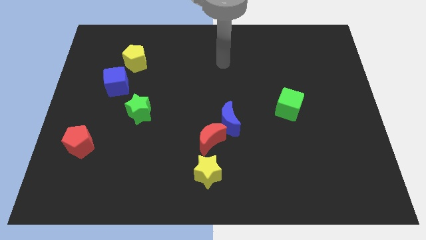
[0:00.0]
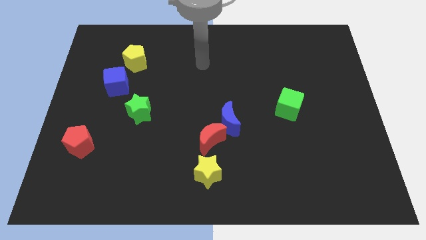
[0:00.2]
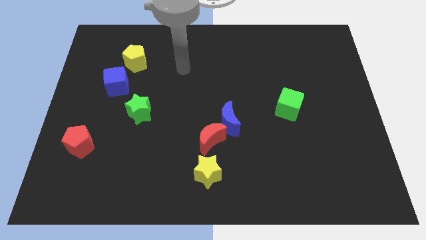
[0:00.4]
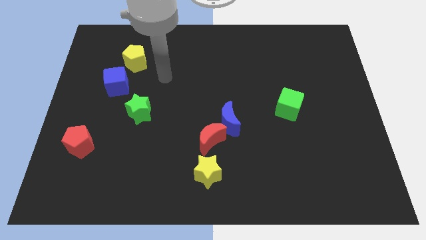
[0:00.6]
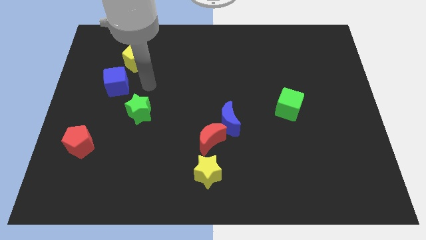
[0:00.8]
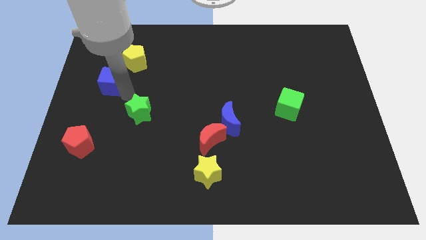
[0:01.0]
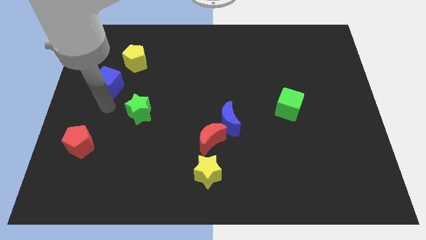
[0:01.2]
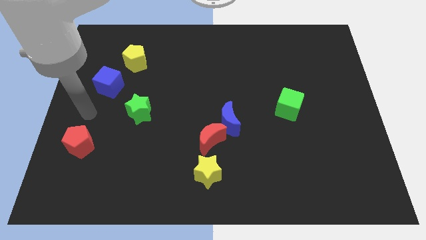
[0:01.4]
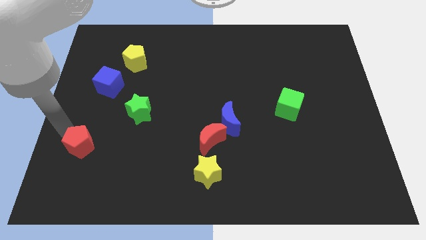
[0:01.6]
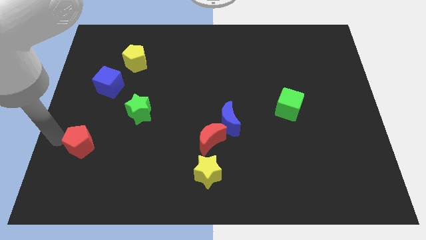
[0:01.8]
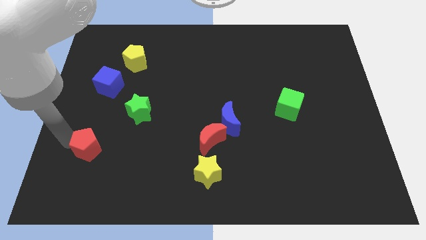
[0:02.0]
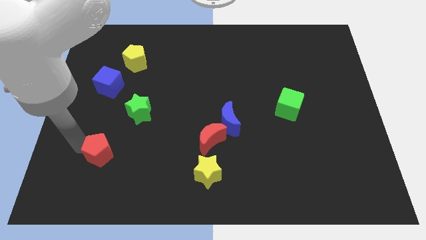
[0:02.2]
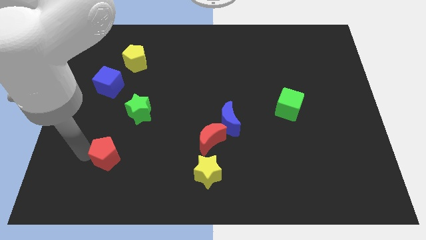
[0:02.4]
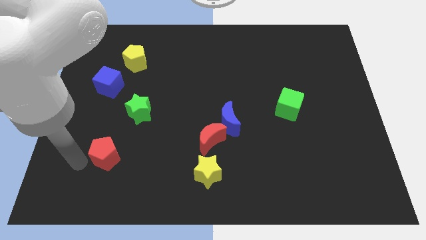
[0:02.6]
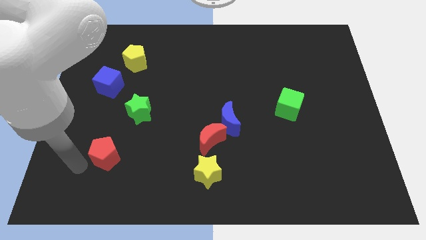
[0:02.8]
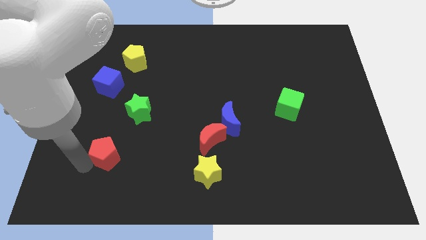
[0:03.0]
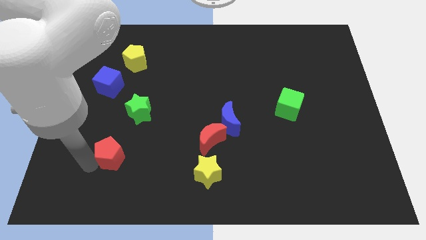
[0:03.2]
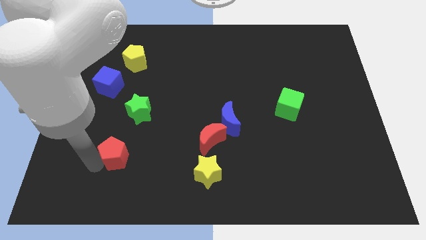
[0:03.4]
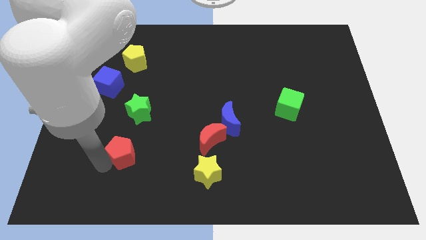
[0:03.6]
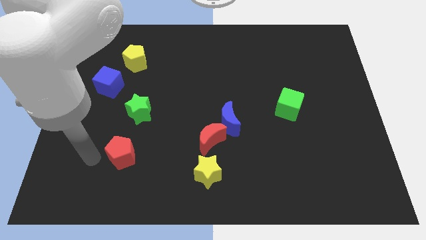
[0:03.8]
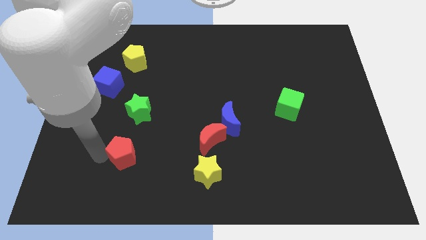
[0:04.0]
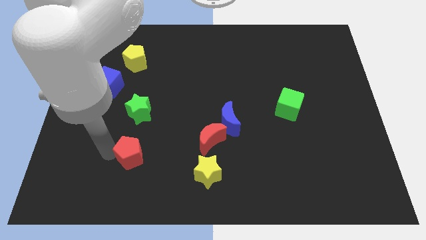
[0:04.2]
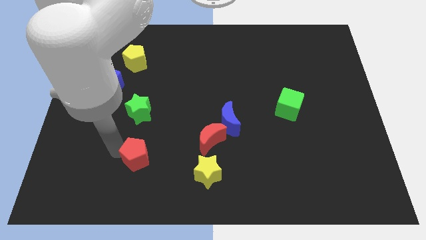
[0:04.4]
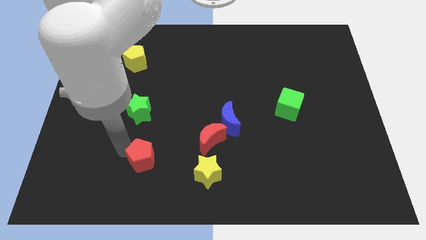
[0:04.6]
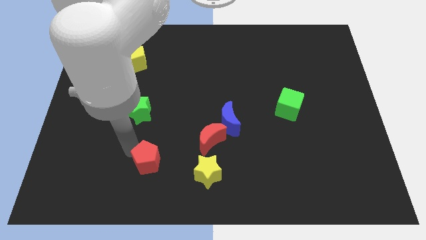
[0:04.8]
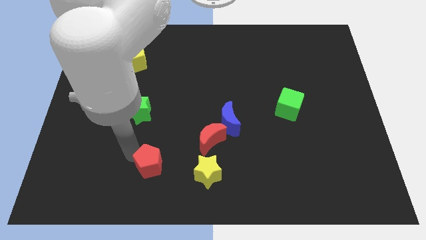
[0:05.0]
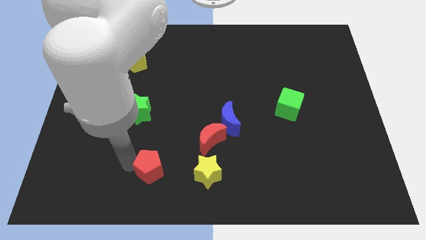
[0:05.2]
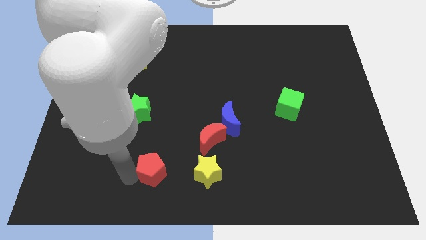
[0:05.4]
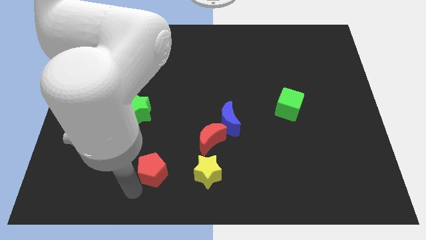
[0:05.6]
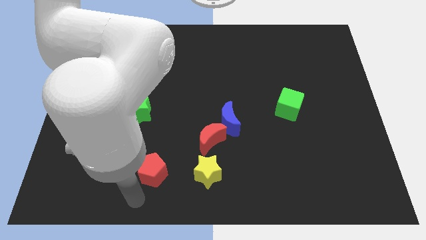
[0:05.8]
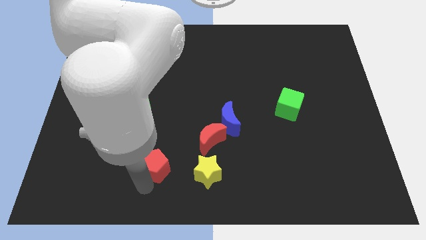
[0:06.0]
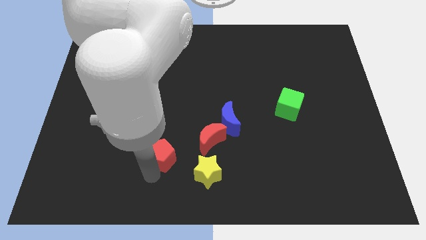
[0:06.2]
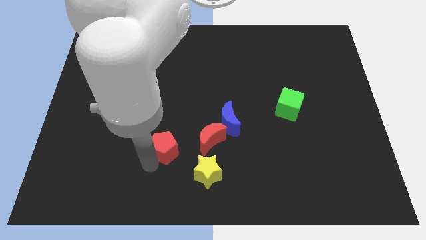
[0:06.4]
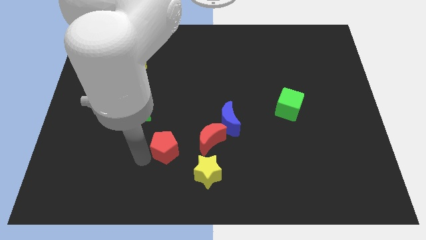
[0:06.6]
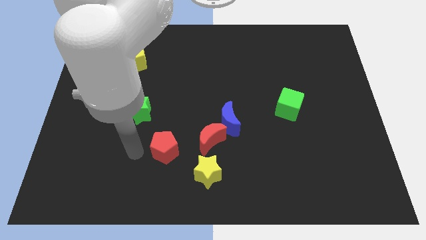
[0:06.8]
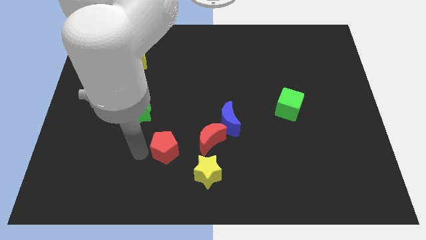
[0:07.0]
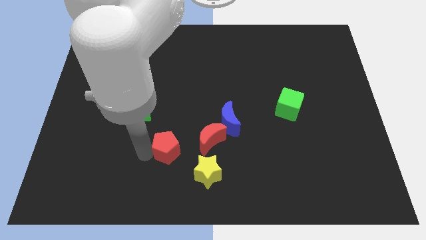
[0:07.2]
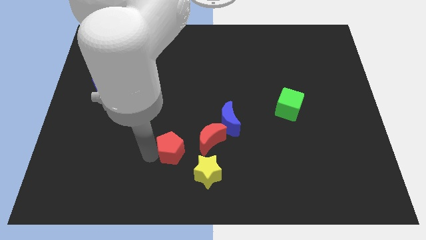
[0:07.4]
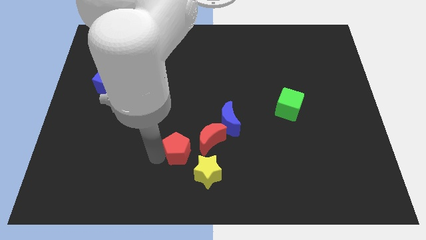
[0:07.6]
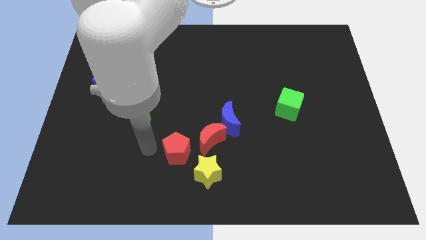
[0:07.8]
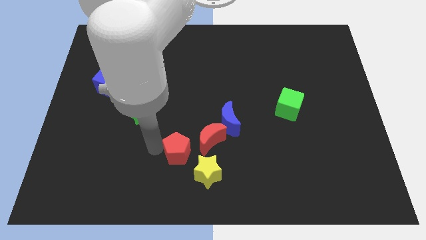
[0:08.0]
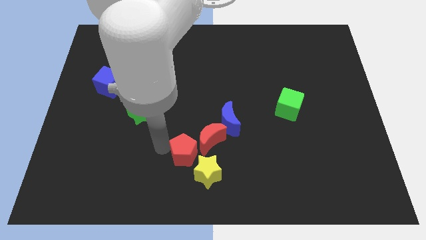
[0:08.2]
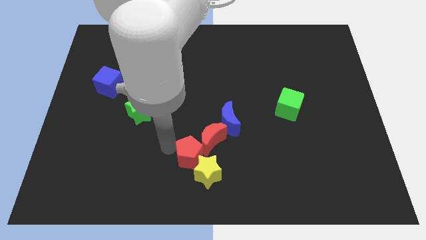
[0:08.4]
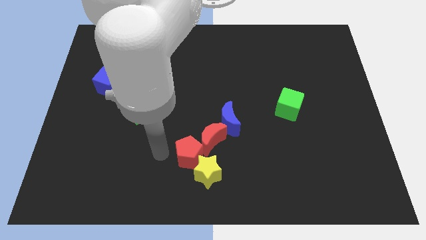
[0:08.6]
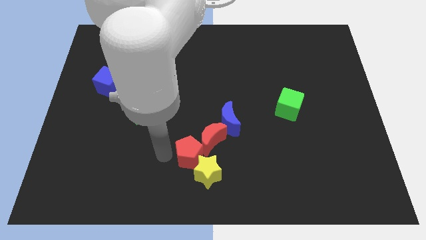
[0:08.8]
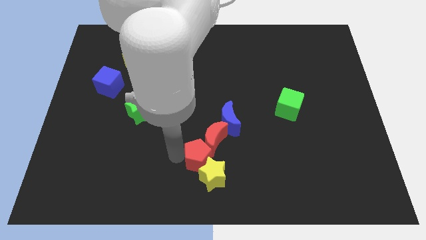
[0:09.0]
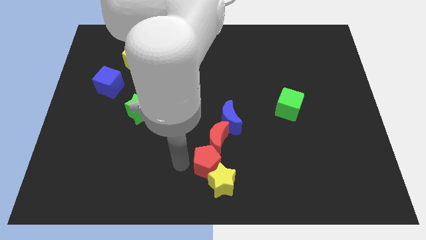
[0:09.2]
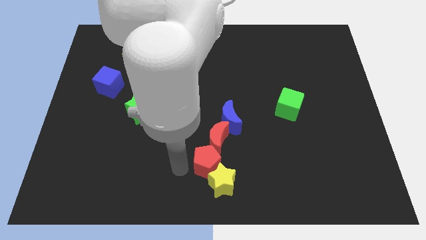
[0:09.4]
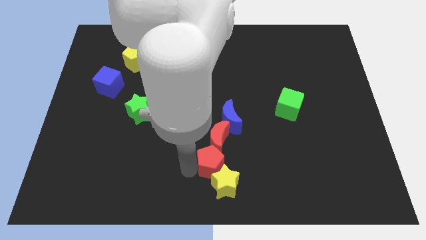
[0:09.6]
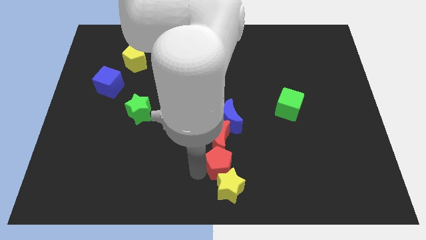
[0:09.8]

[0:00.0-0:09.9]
move the red pentagon to the top right of the yellow star

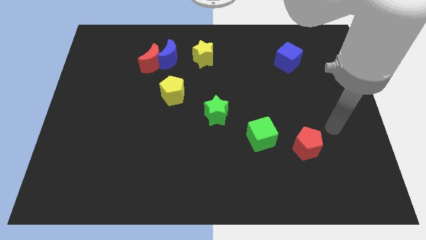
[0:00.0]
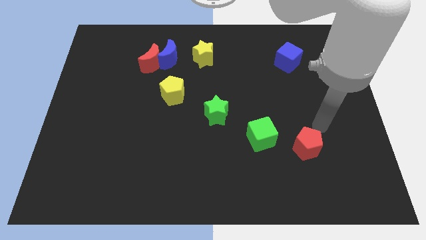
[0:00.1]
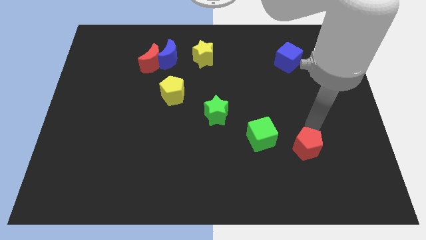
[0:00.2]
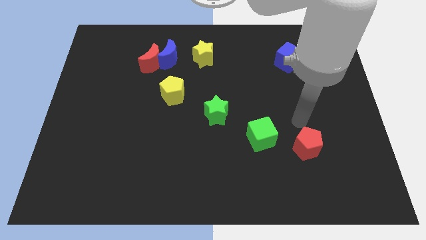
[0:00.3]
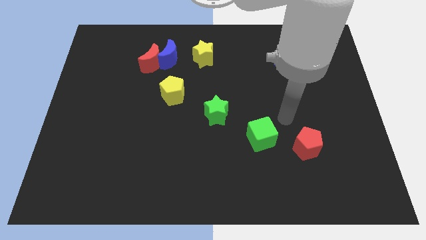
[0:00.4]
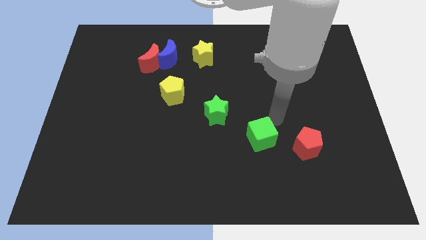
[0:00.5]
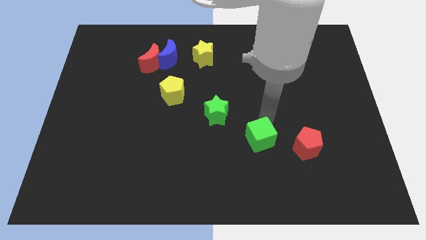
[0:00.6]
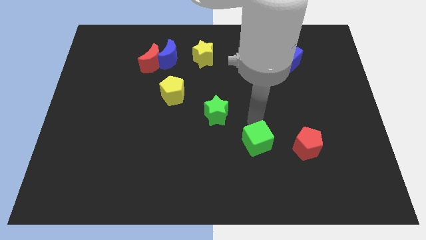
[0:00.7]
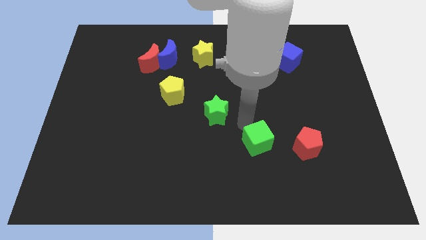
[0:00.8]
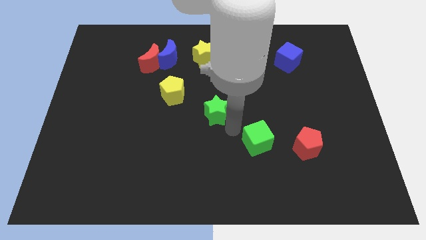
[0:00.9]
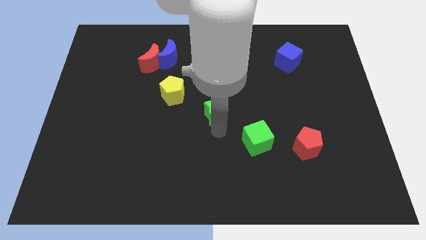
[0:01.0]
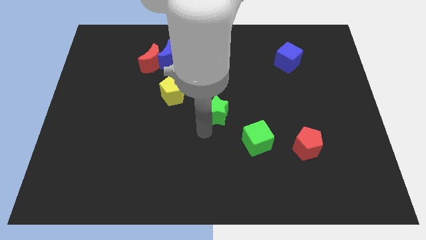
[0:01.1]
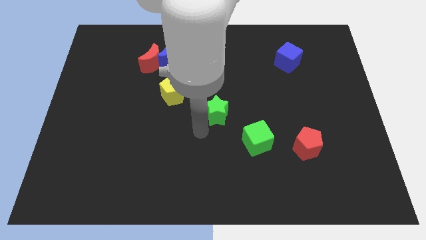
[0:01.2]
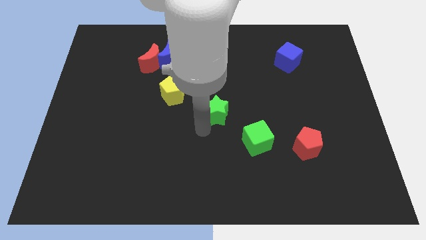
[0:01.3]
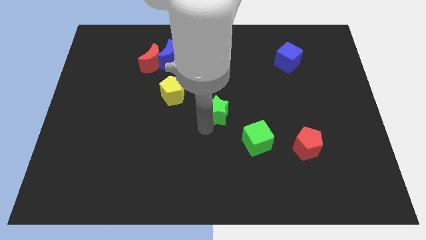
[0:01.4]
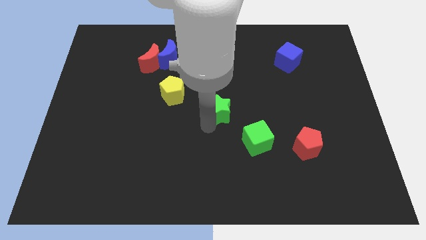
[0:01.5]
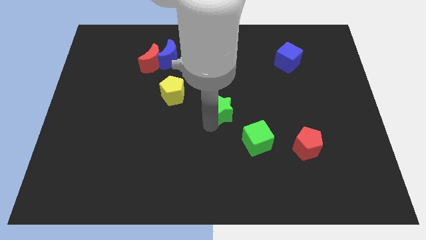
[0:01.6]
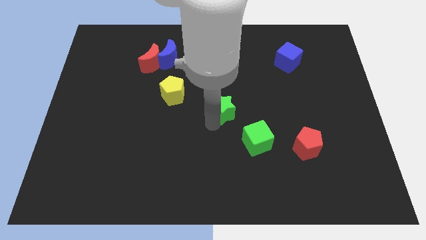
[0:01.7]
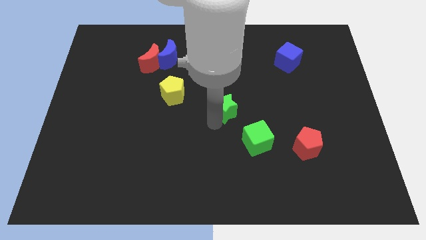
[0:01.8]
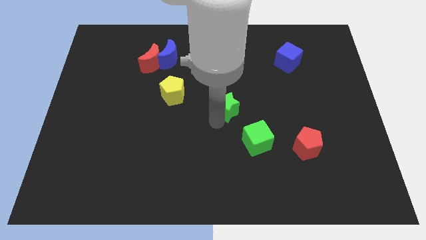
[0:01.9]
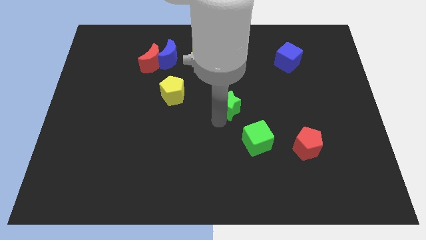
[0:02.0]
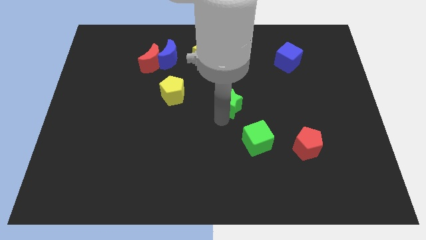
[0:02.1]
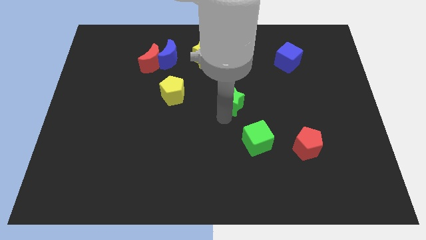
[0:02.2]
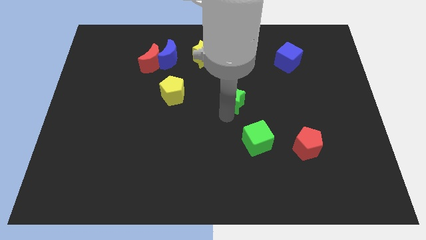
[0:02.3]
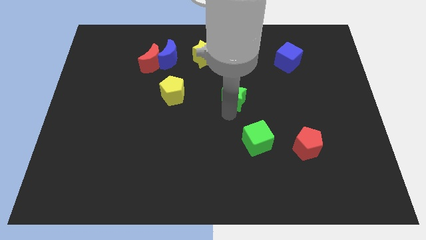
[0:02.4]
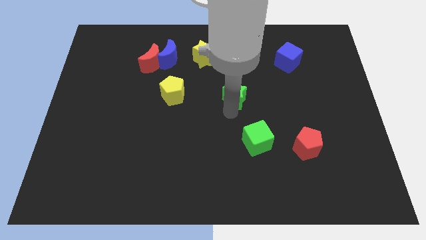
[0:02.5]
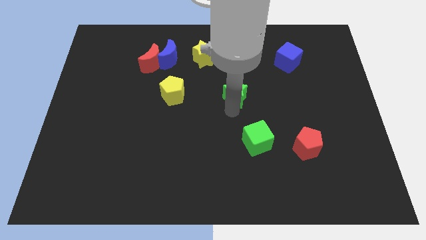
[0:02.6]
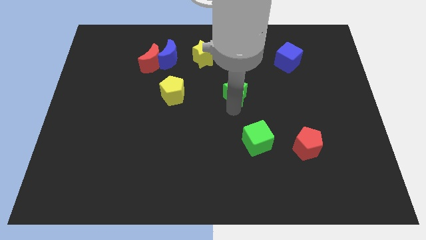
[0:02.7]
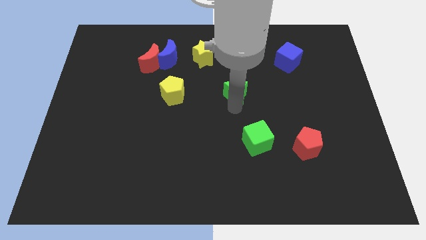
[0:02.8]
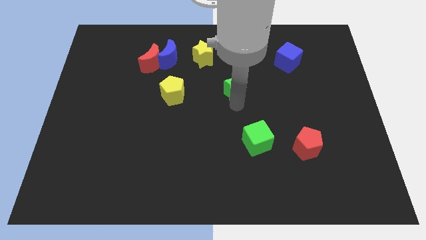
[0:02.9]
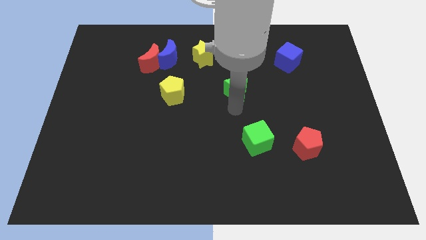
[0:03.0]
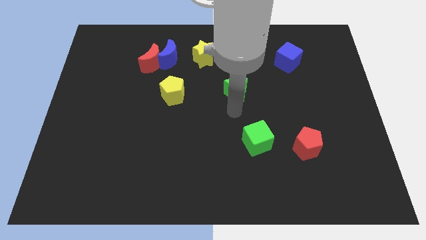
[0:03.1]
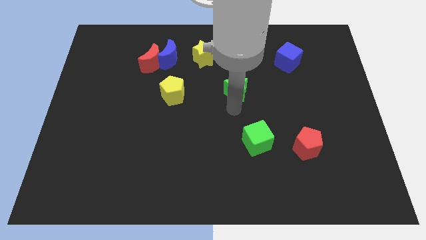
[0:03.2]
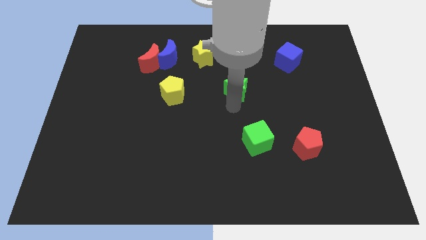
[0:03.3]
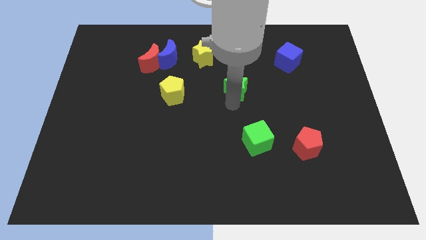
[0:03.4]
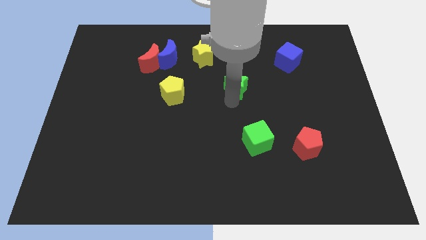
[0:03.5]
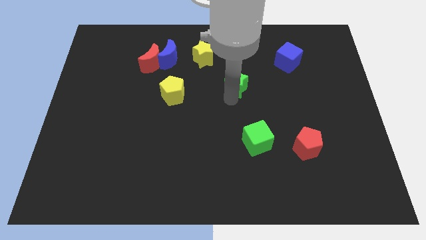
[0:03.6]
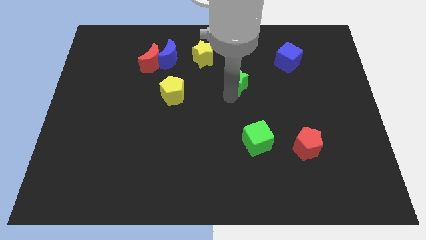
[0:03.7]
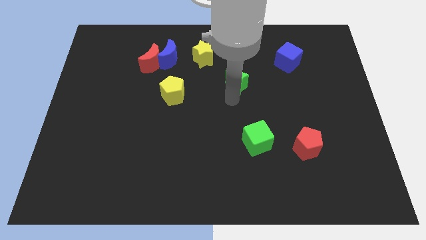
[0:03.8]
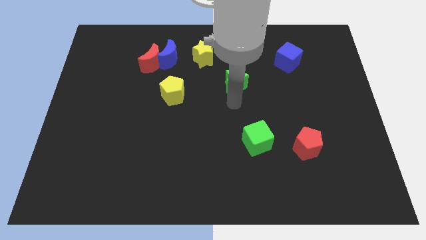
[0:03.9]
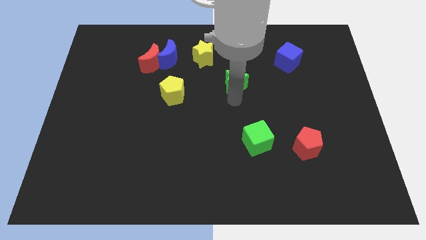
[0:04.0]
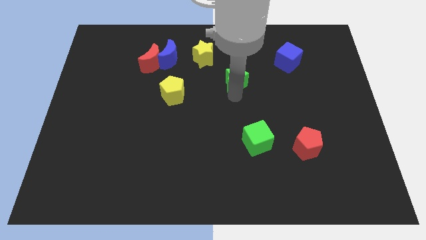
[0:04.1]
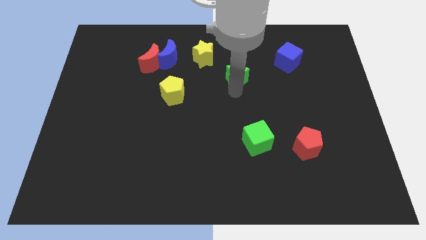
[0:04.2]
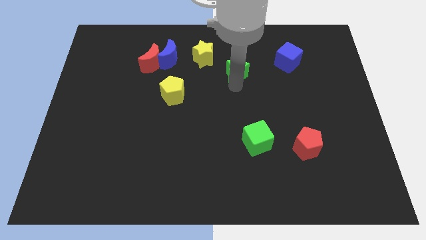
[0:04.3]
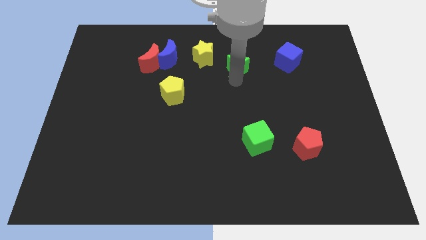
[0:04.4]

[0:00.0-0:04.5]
push the green star right of the yellow star
